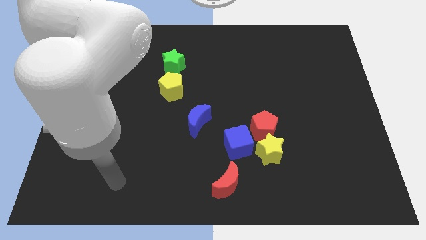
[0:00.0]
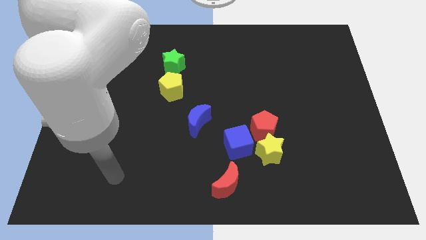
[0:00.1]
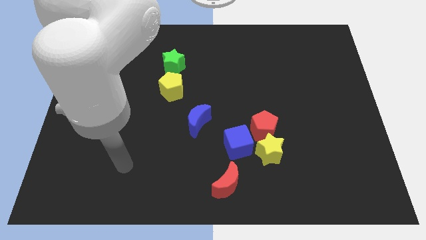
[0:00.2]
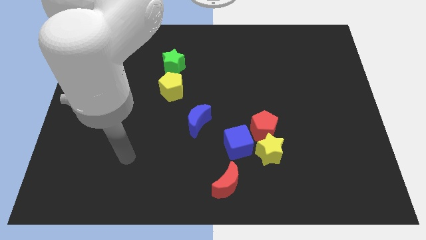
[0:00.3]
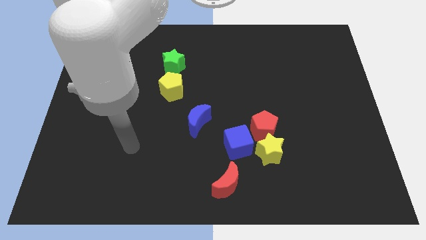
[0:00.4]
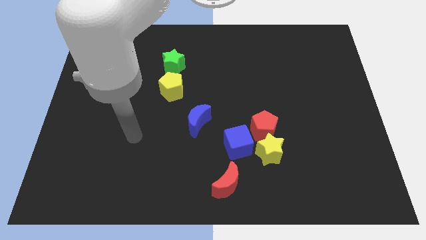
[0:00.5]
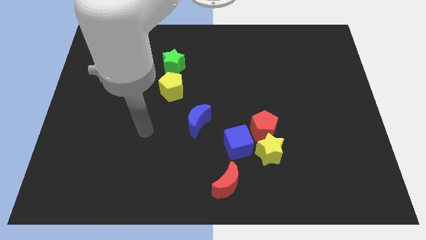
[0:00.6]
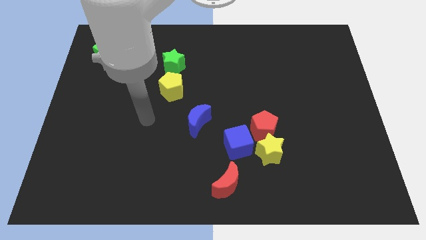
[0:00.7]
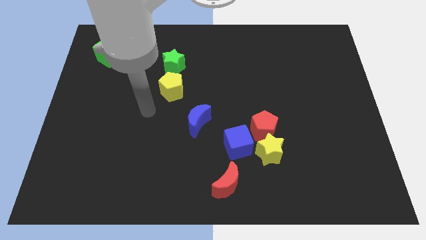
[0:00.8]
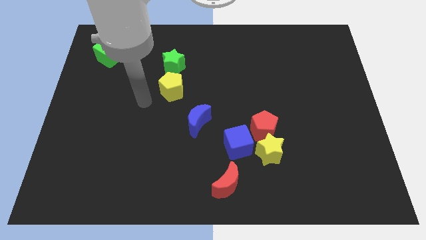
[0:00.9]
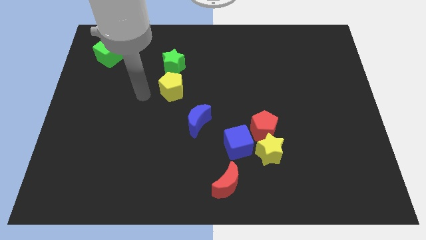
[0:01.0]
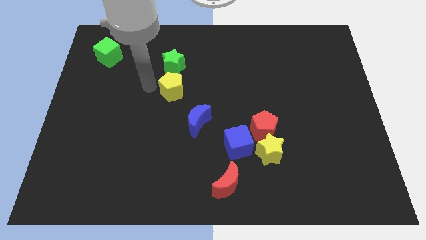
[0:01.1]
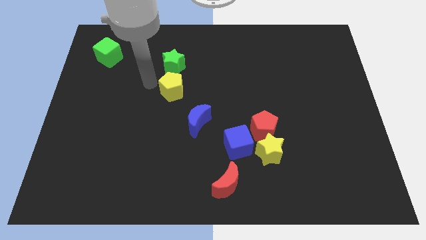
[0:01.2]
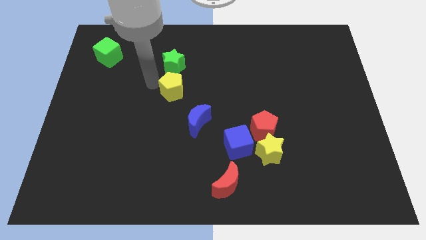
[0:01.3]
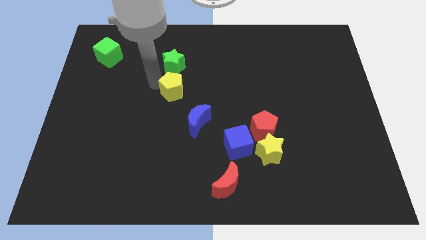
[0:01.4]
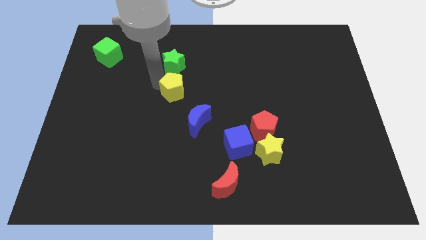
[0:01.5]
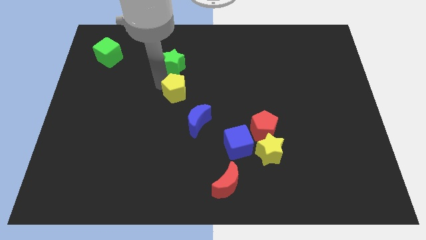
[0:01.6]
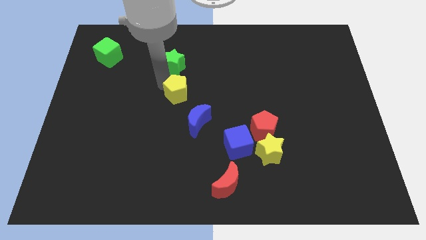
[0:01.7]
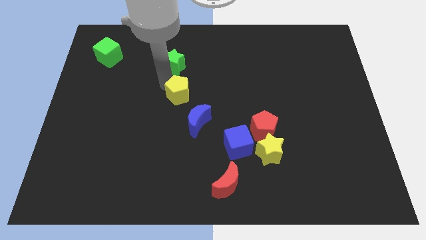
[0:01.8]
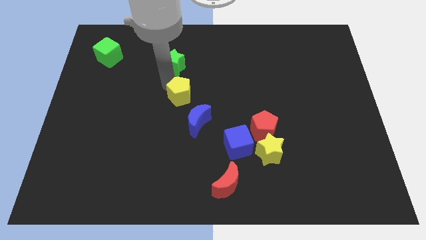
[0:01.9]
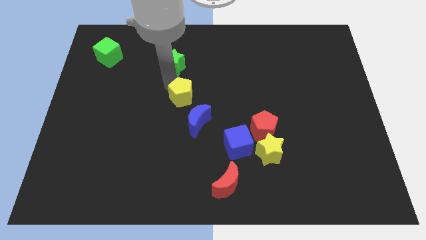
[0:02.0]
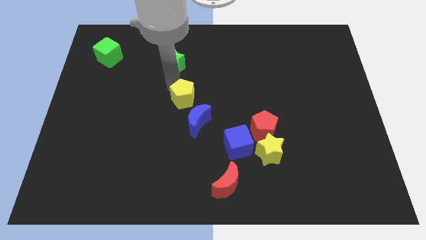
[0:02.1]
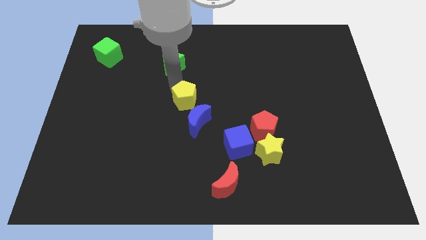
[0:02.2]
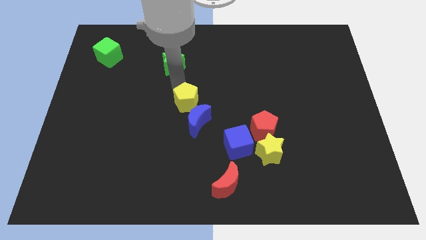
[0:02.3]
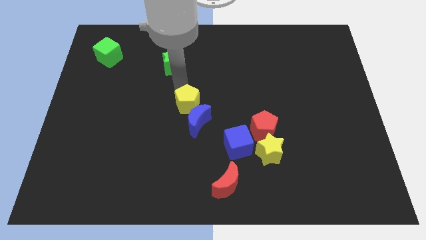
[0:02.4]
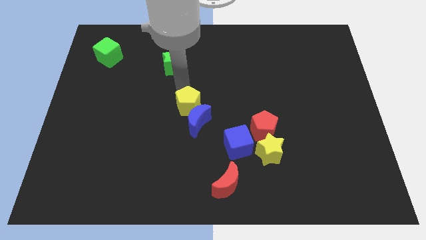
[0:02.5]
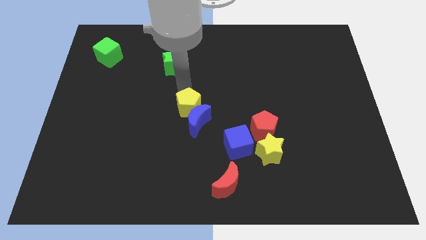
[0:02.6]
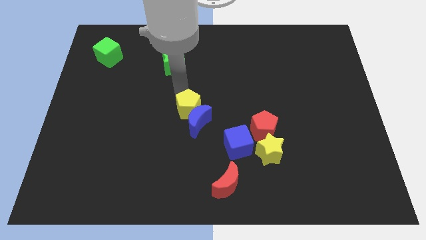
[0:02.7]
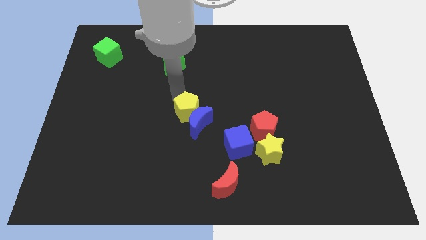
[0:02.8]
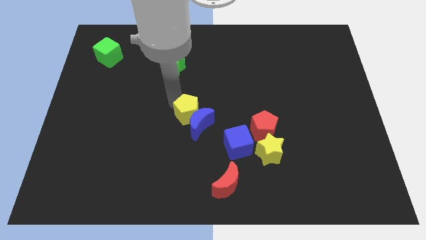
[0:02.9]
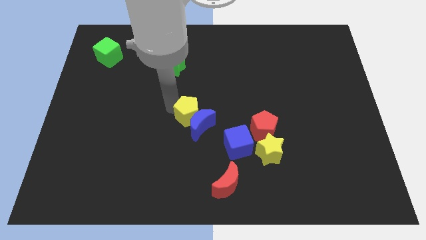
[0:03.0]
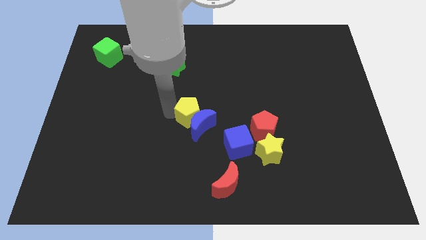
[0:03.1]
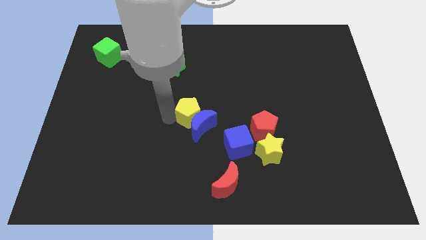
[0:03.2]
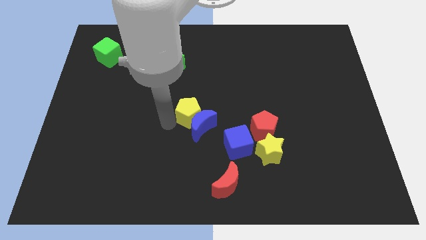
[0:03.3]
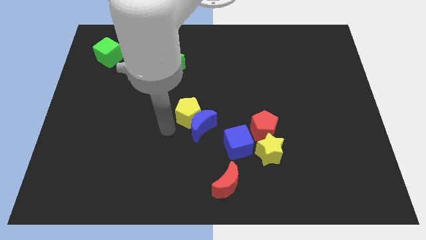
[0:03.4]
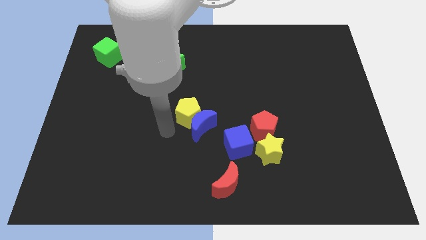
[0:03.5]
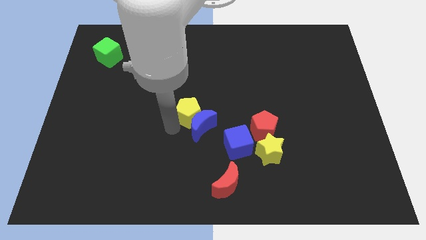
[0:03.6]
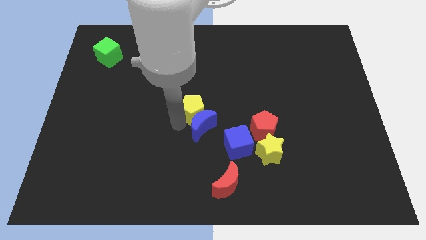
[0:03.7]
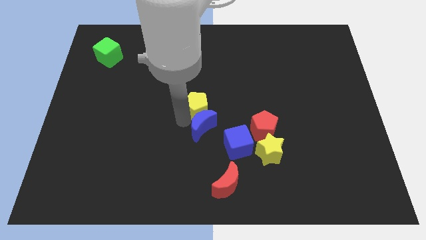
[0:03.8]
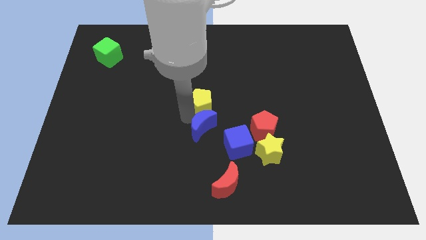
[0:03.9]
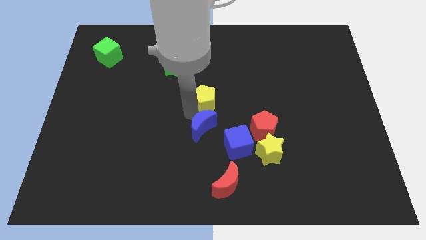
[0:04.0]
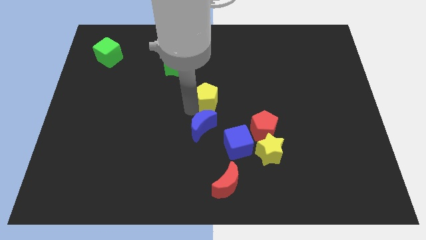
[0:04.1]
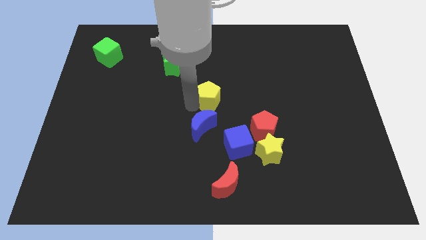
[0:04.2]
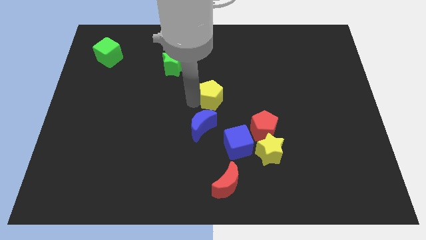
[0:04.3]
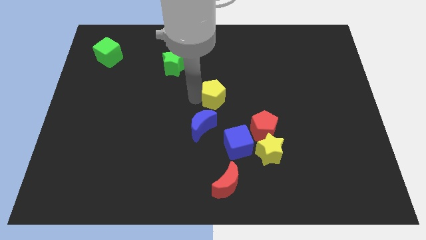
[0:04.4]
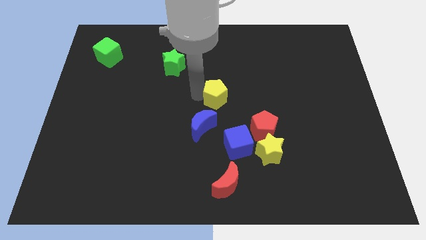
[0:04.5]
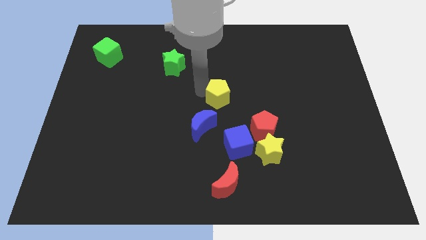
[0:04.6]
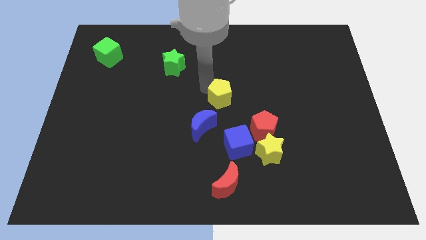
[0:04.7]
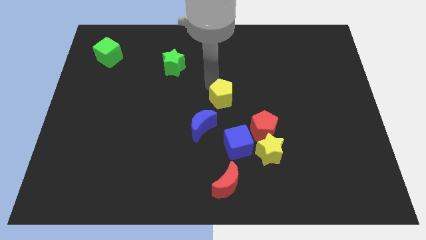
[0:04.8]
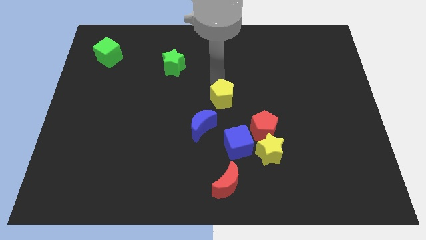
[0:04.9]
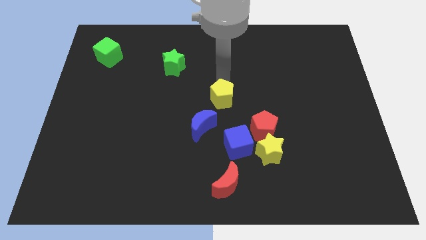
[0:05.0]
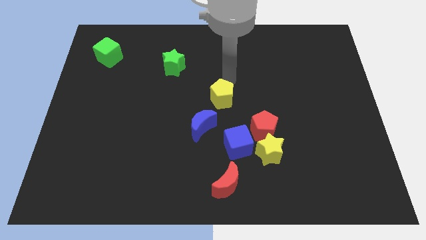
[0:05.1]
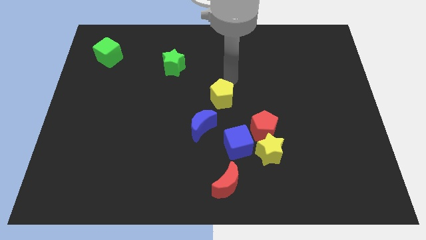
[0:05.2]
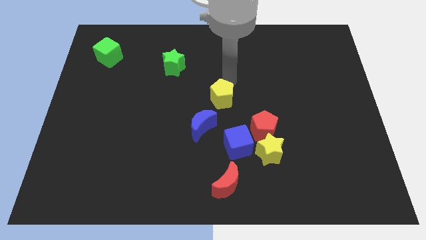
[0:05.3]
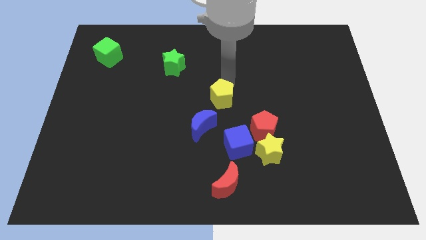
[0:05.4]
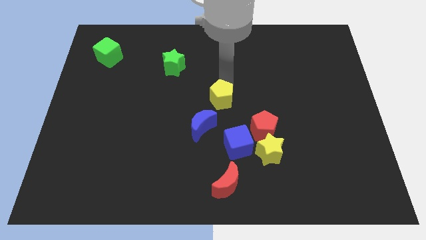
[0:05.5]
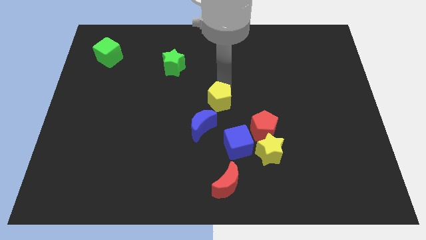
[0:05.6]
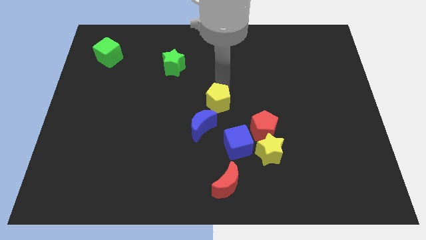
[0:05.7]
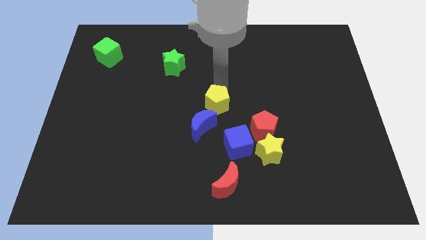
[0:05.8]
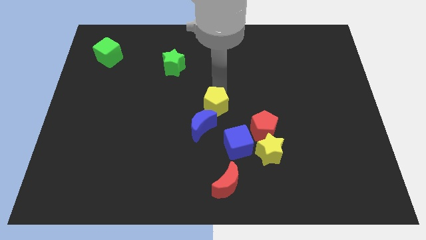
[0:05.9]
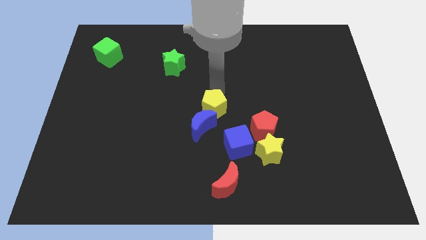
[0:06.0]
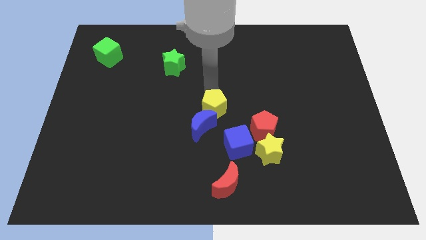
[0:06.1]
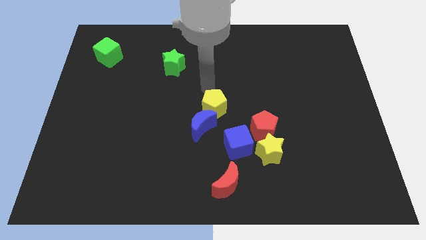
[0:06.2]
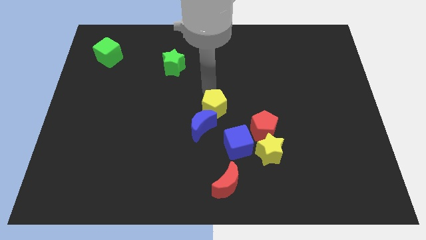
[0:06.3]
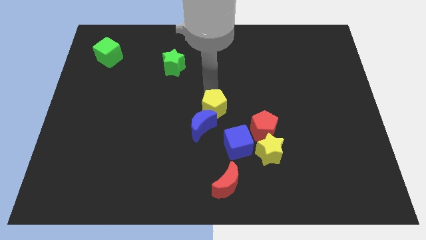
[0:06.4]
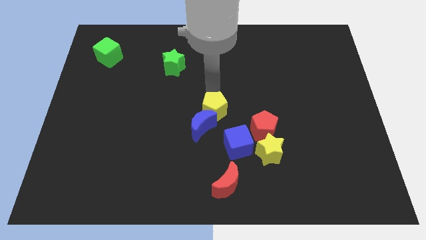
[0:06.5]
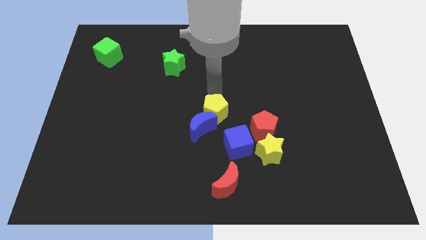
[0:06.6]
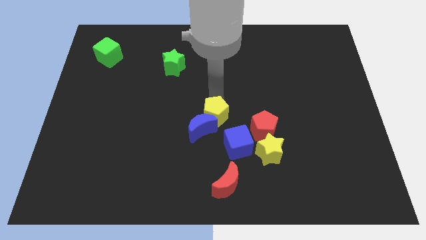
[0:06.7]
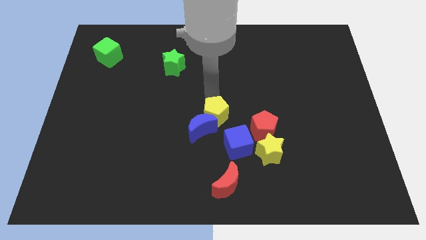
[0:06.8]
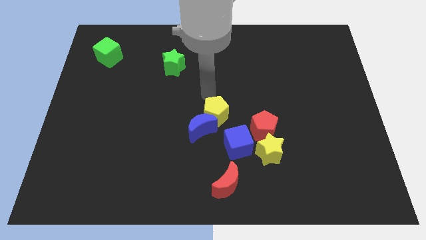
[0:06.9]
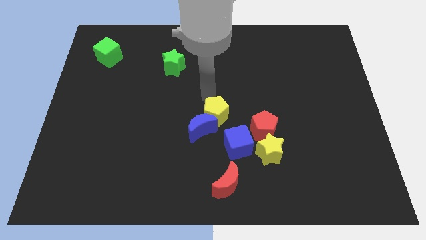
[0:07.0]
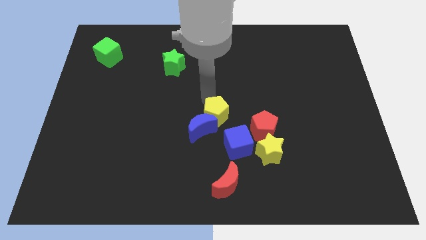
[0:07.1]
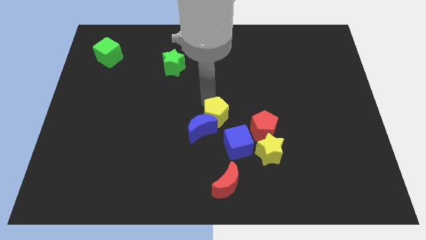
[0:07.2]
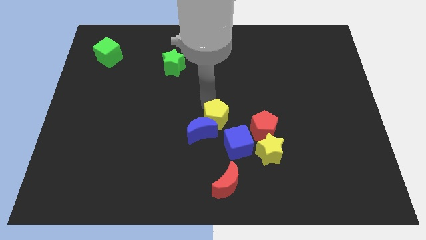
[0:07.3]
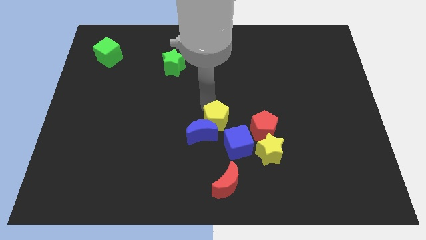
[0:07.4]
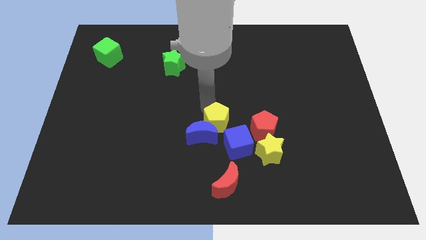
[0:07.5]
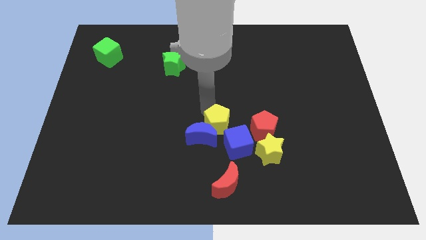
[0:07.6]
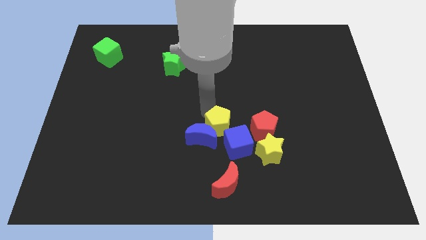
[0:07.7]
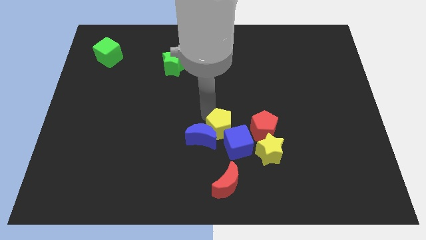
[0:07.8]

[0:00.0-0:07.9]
move the yellow pentagon next to the blue cube
